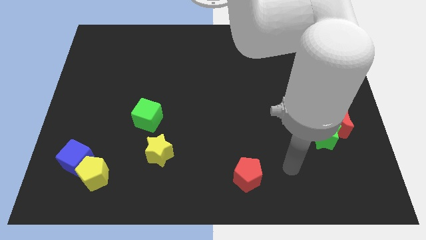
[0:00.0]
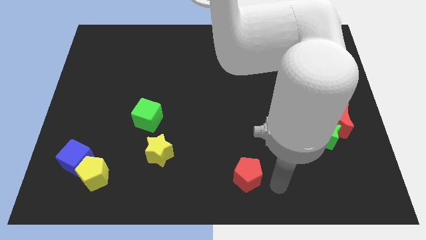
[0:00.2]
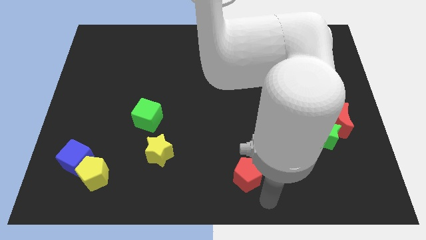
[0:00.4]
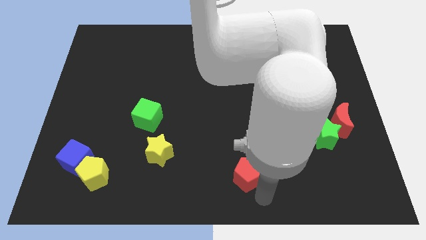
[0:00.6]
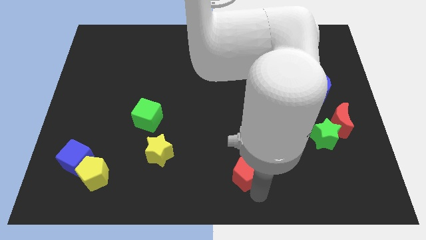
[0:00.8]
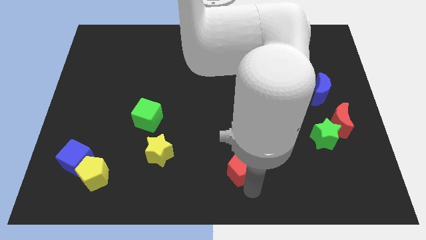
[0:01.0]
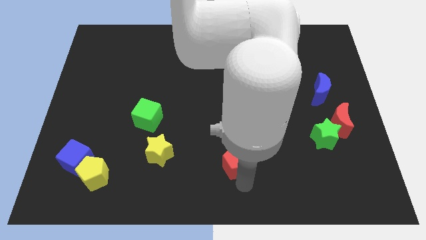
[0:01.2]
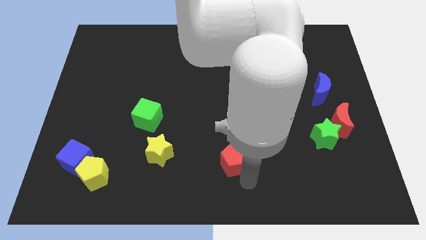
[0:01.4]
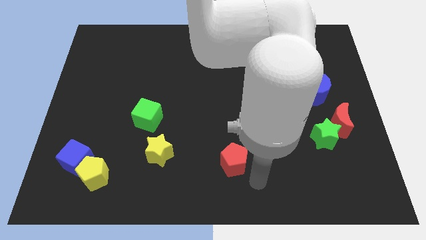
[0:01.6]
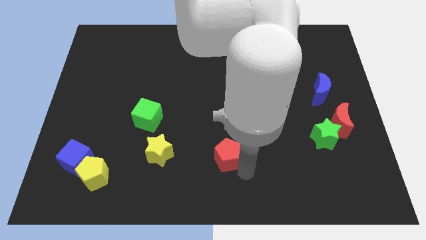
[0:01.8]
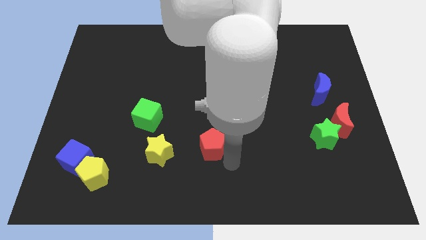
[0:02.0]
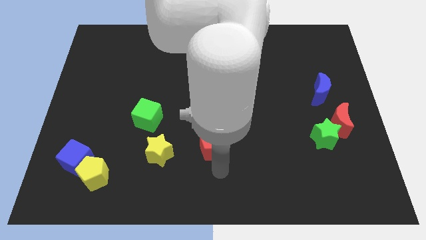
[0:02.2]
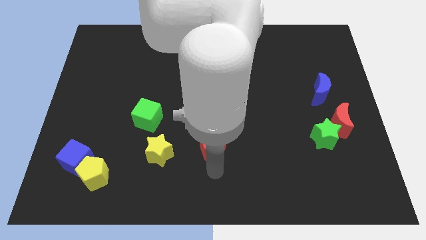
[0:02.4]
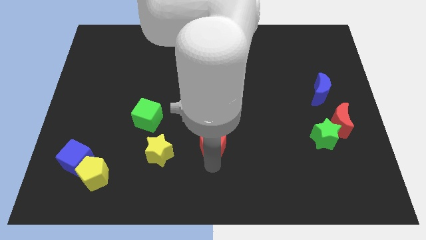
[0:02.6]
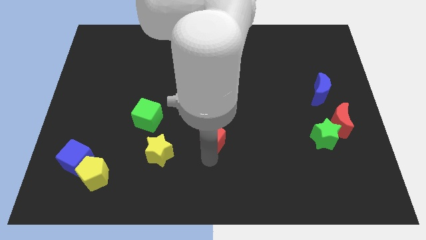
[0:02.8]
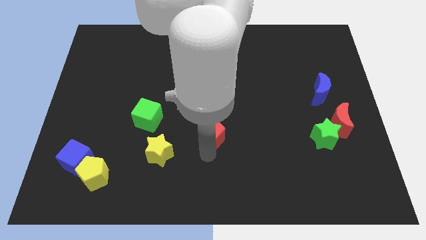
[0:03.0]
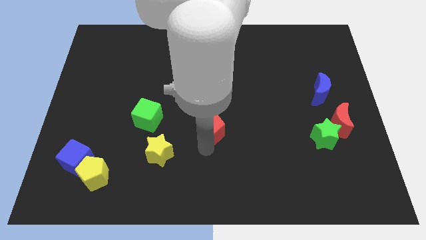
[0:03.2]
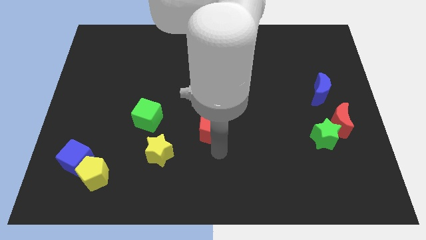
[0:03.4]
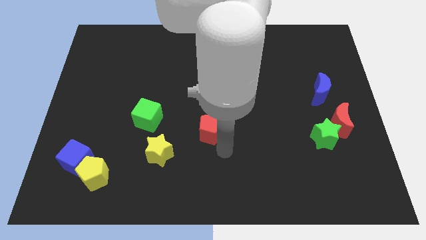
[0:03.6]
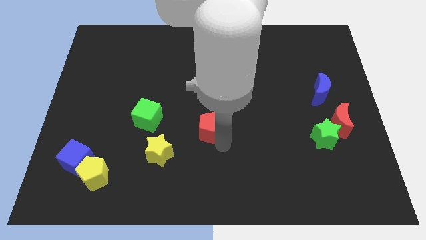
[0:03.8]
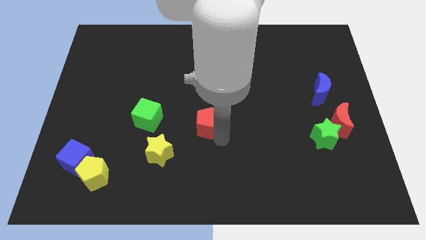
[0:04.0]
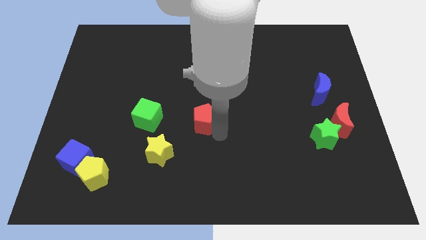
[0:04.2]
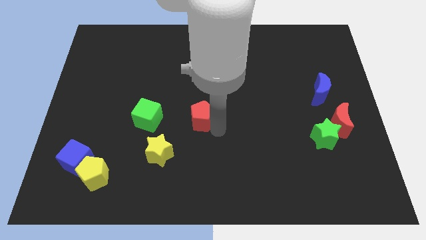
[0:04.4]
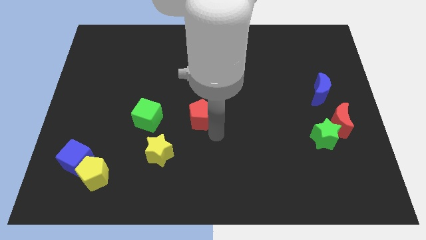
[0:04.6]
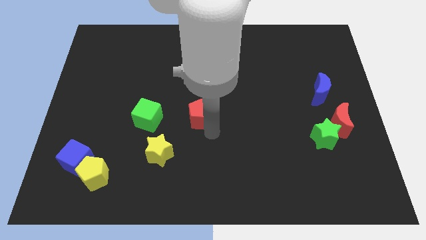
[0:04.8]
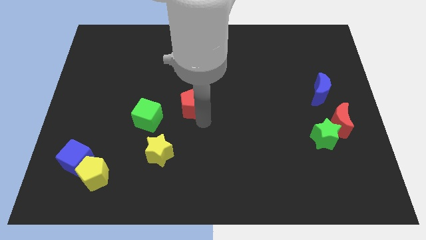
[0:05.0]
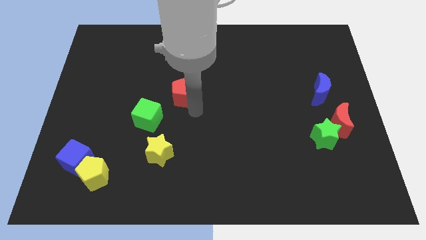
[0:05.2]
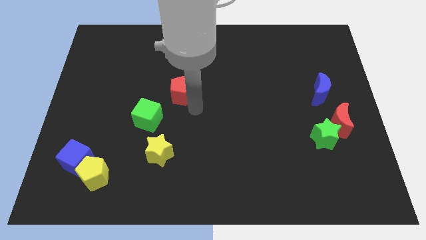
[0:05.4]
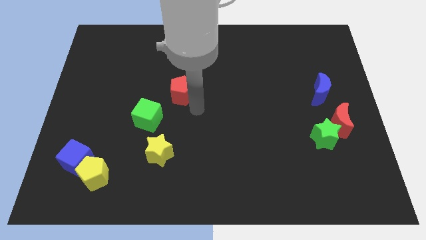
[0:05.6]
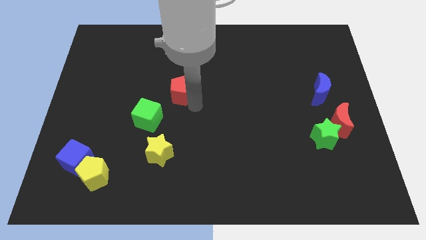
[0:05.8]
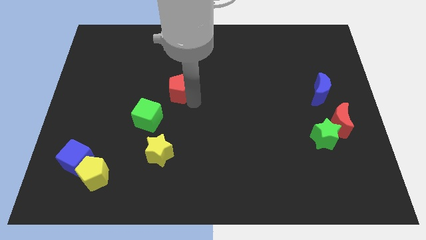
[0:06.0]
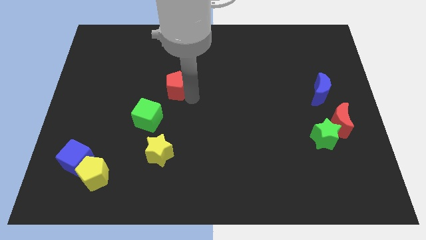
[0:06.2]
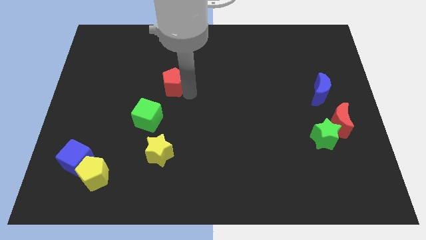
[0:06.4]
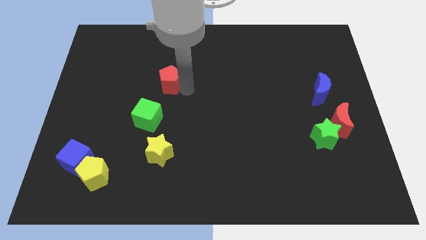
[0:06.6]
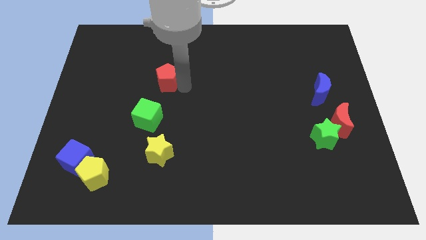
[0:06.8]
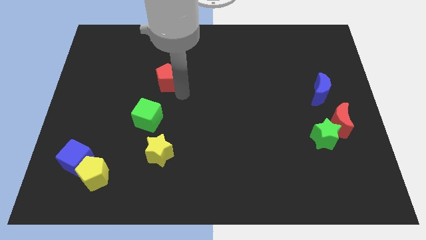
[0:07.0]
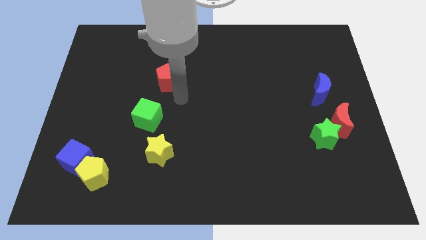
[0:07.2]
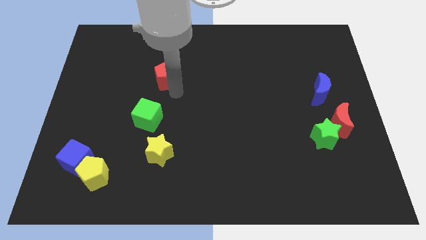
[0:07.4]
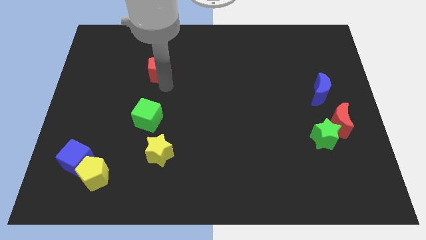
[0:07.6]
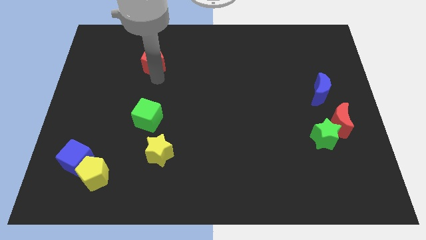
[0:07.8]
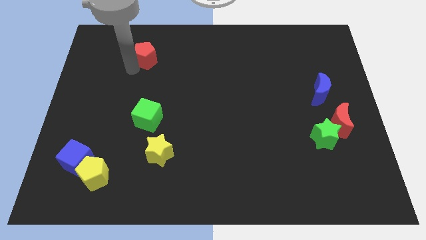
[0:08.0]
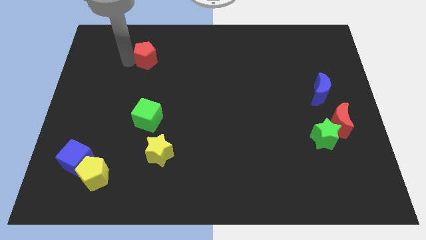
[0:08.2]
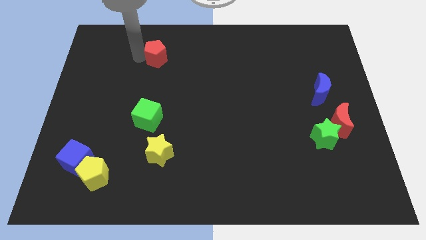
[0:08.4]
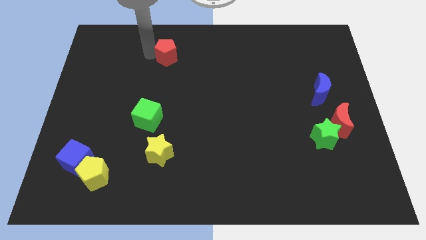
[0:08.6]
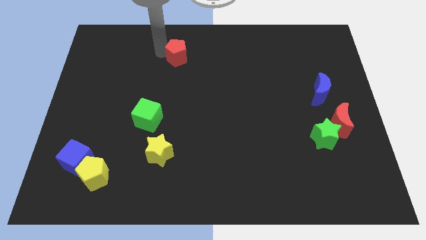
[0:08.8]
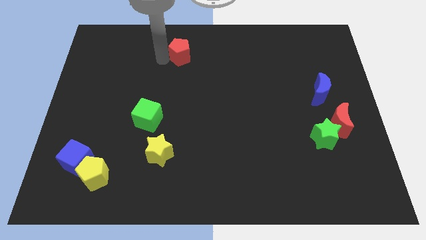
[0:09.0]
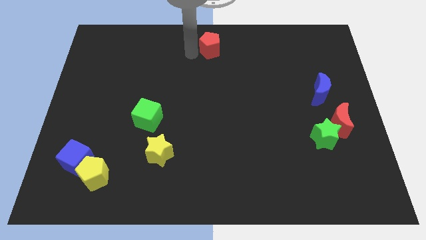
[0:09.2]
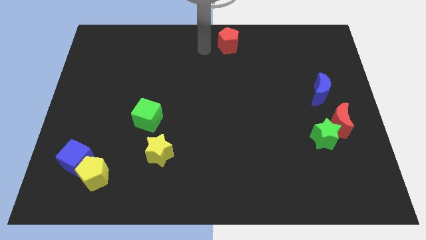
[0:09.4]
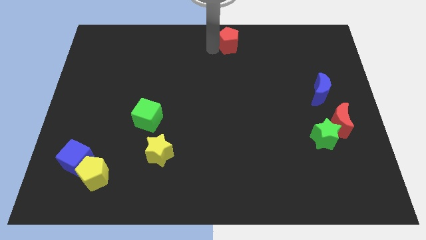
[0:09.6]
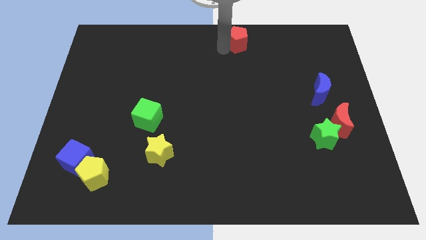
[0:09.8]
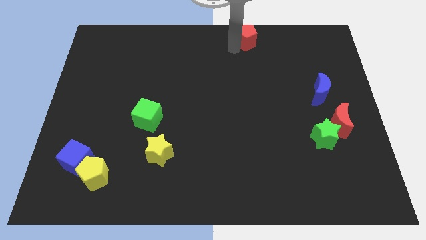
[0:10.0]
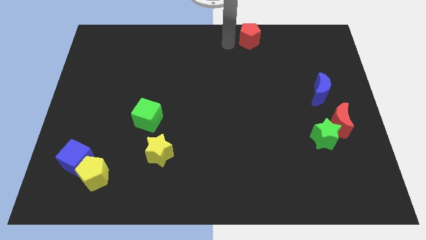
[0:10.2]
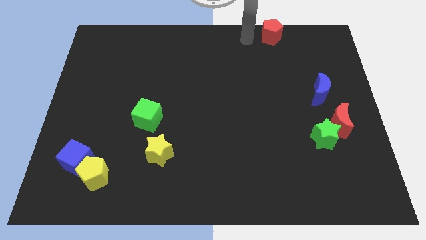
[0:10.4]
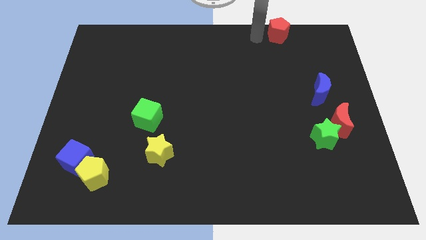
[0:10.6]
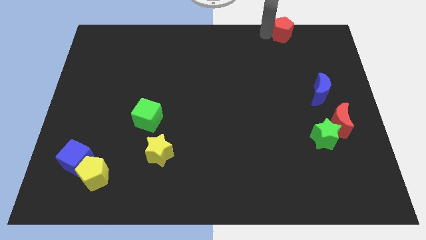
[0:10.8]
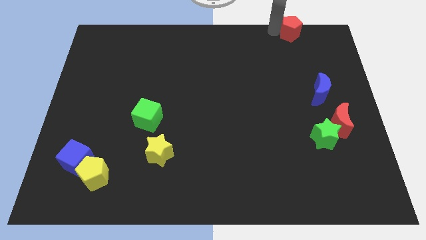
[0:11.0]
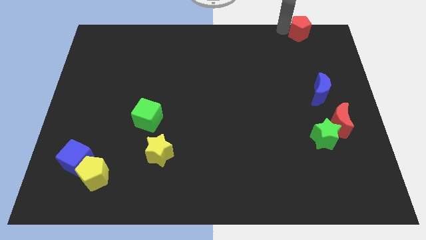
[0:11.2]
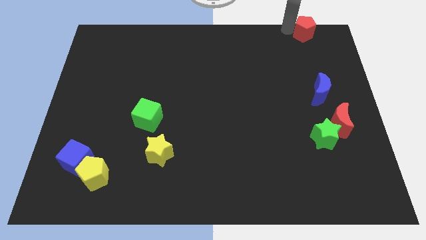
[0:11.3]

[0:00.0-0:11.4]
move the red pentagon to the top right

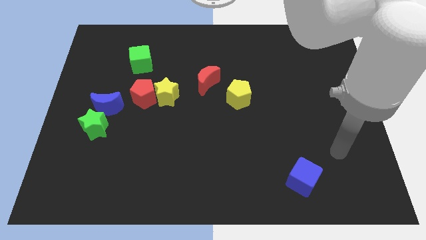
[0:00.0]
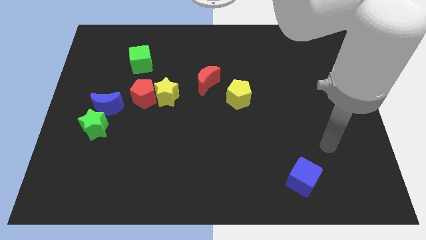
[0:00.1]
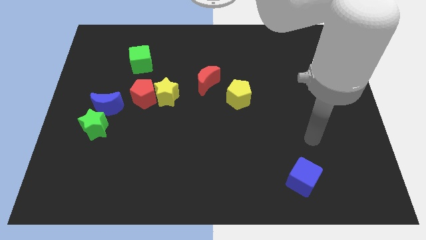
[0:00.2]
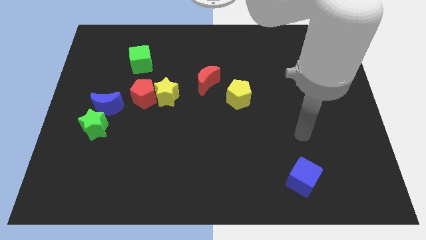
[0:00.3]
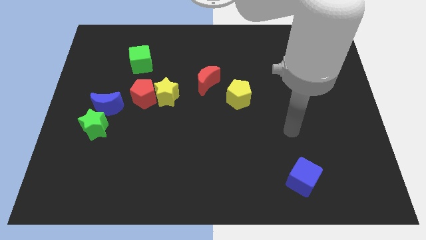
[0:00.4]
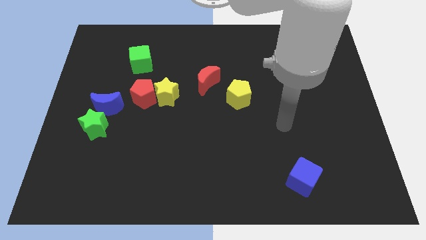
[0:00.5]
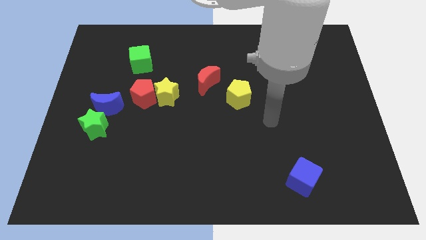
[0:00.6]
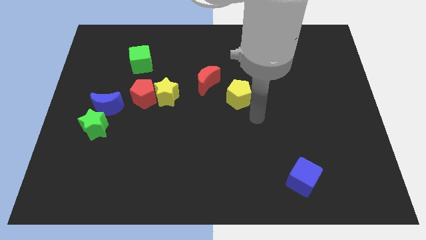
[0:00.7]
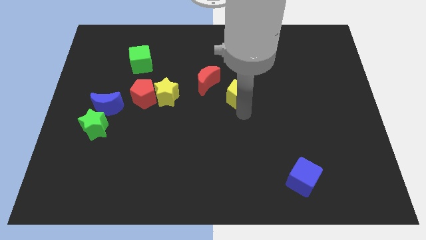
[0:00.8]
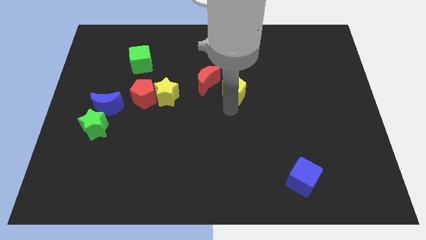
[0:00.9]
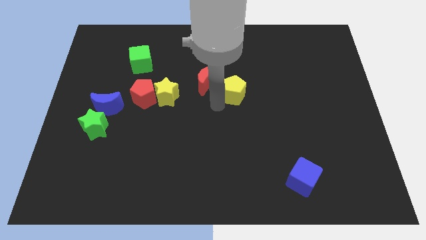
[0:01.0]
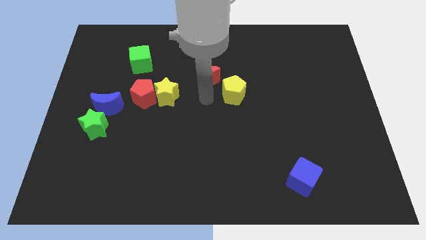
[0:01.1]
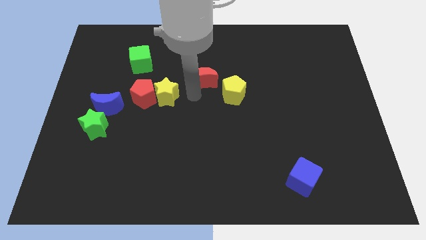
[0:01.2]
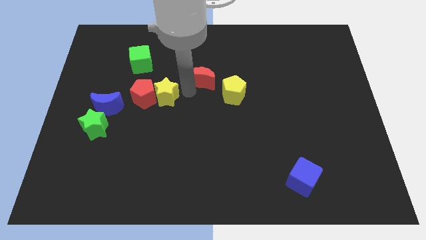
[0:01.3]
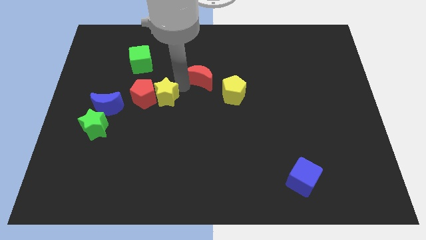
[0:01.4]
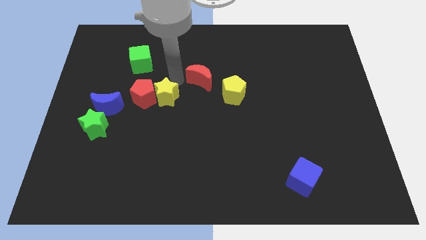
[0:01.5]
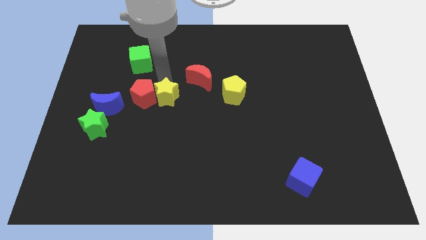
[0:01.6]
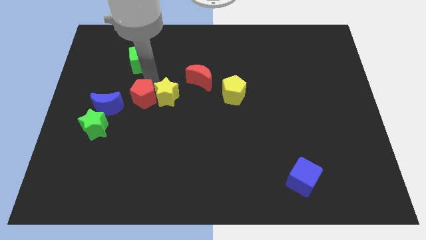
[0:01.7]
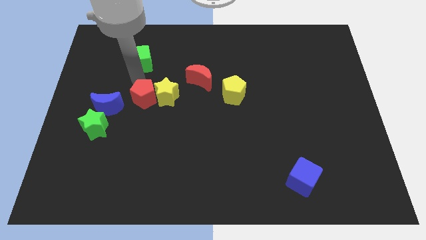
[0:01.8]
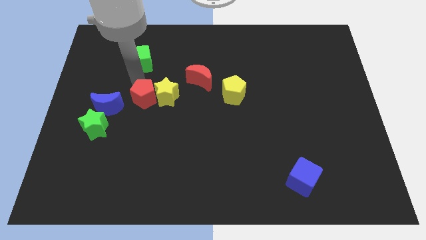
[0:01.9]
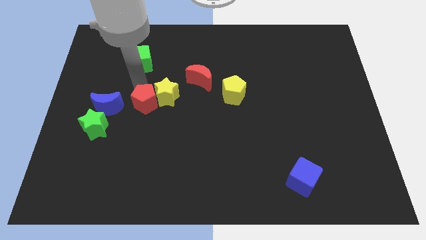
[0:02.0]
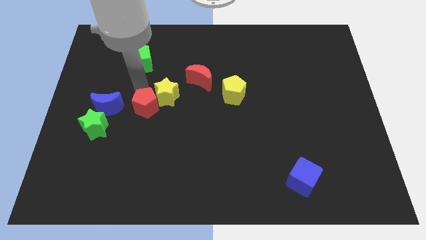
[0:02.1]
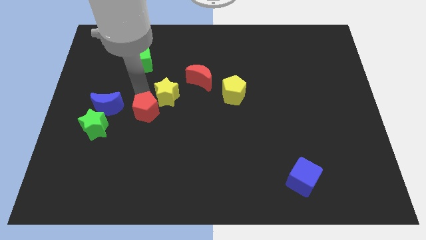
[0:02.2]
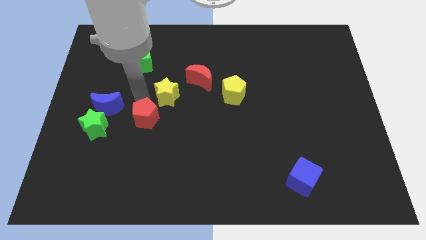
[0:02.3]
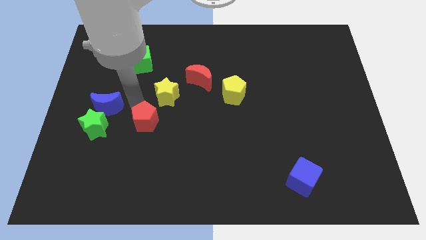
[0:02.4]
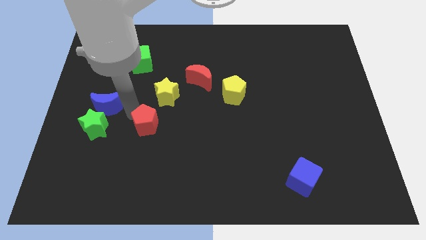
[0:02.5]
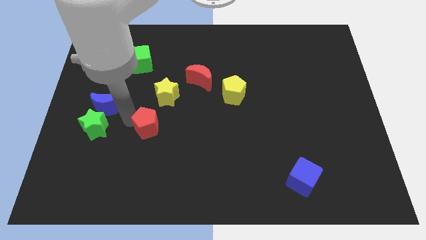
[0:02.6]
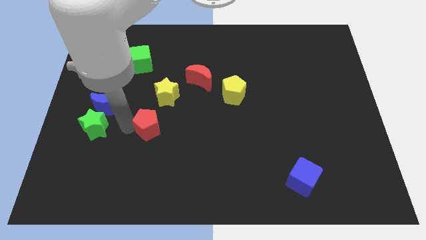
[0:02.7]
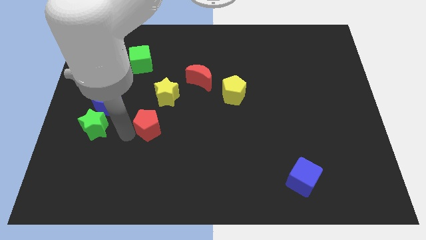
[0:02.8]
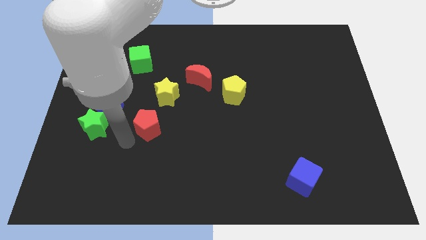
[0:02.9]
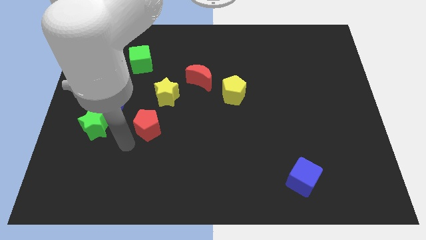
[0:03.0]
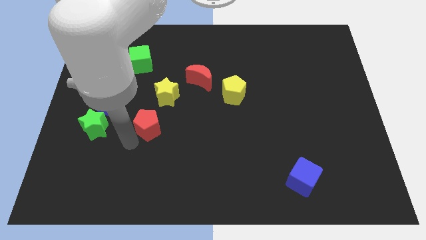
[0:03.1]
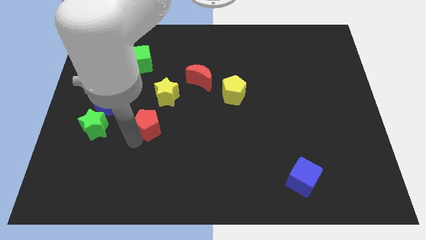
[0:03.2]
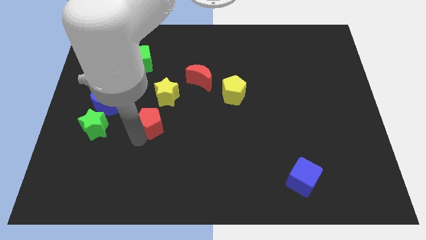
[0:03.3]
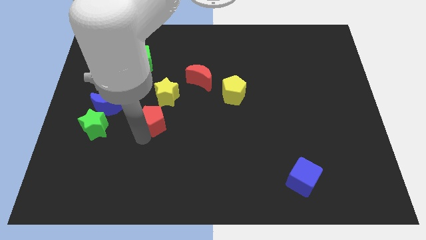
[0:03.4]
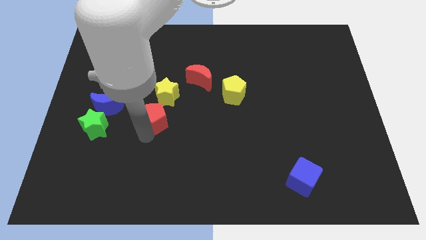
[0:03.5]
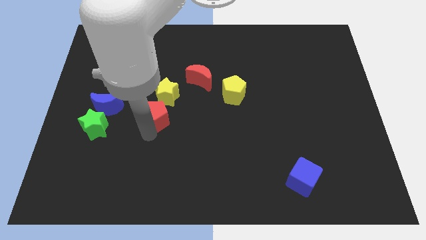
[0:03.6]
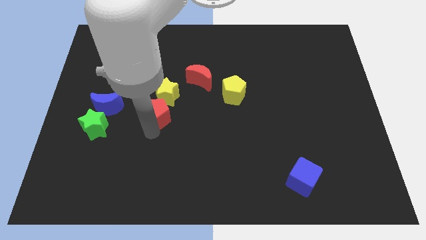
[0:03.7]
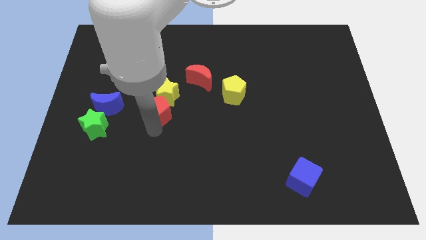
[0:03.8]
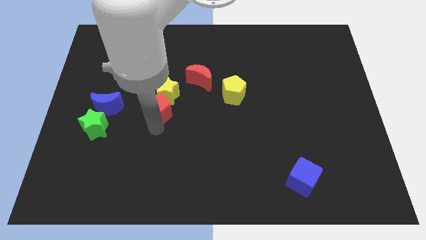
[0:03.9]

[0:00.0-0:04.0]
put the red pentagon to the middle
